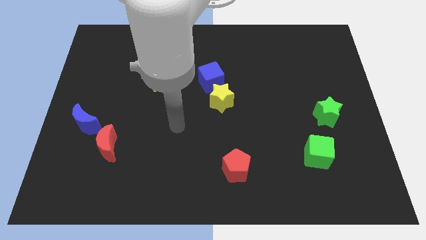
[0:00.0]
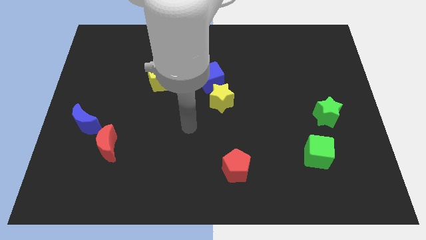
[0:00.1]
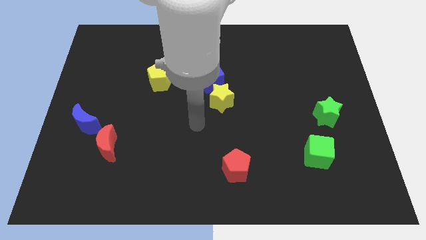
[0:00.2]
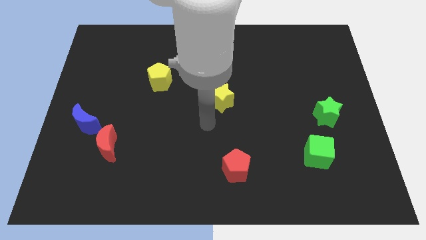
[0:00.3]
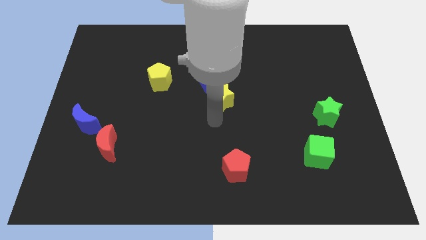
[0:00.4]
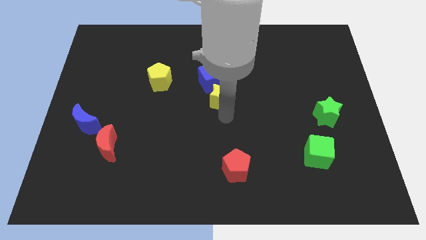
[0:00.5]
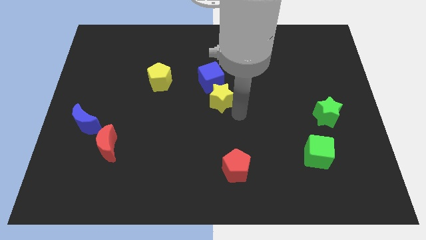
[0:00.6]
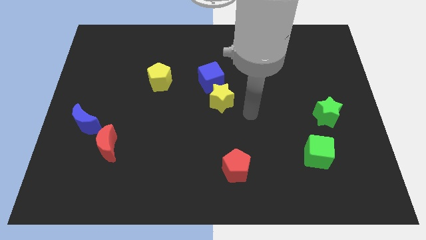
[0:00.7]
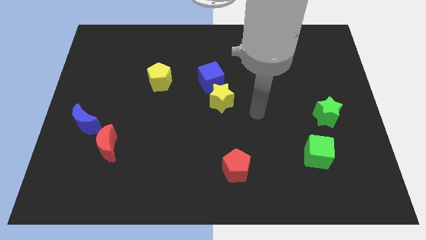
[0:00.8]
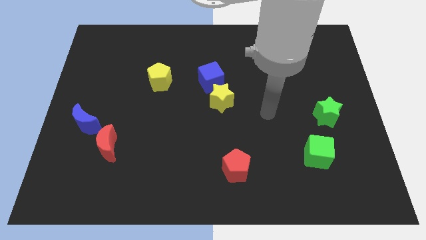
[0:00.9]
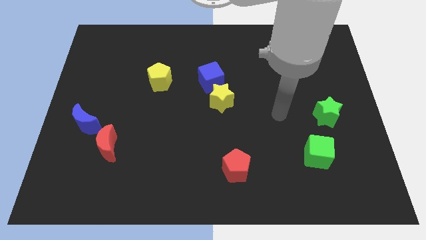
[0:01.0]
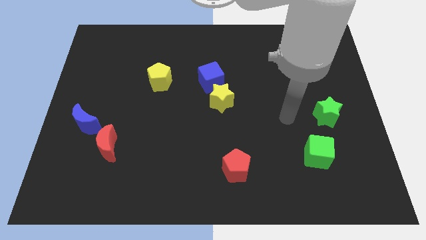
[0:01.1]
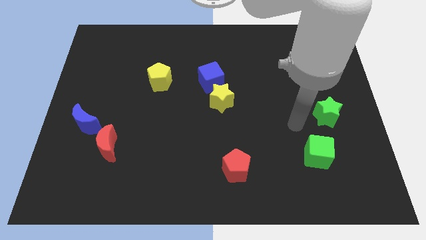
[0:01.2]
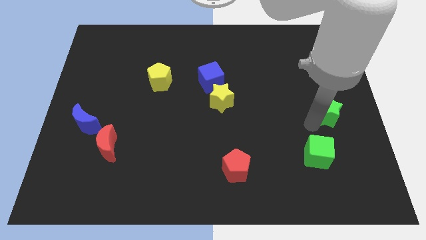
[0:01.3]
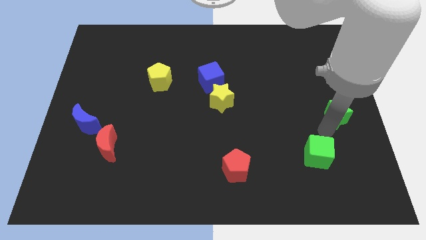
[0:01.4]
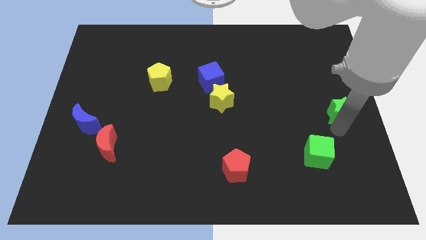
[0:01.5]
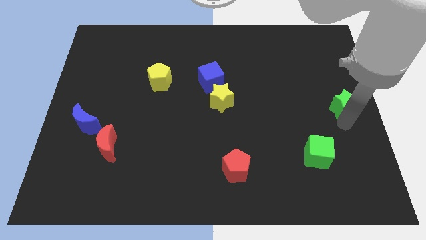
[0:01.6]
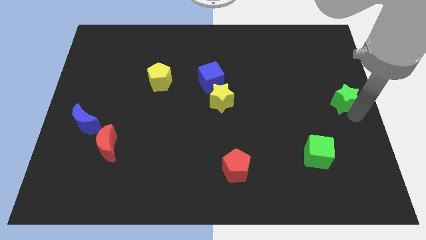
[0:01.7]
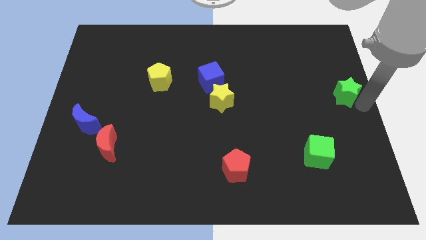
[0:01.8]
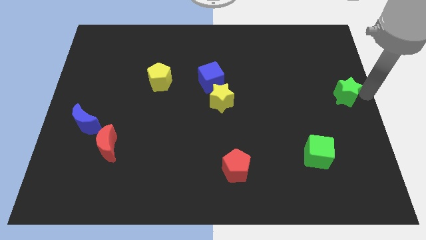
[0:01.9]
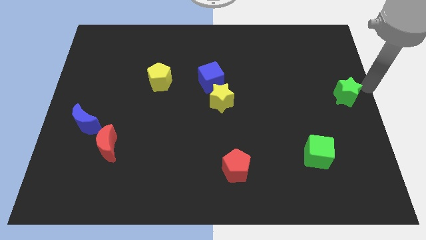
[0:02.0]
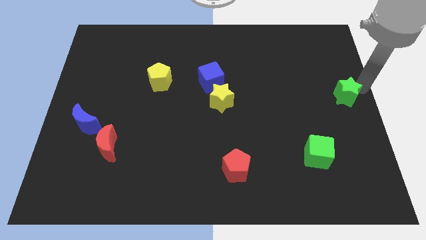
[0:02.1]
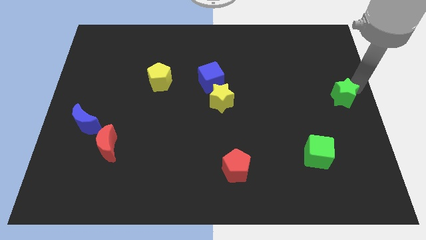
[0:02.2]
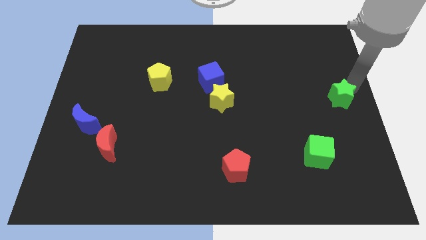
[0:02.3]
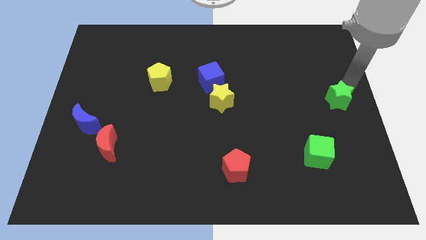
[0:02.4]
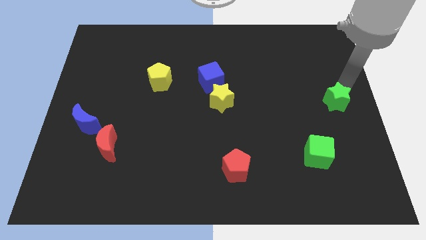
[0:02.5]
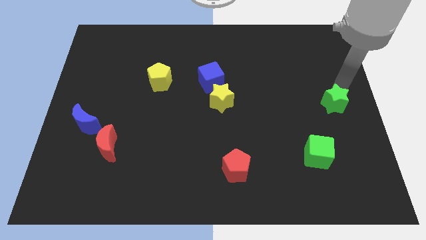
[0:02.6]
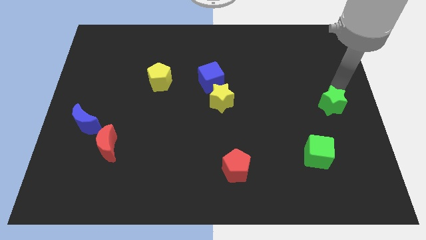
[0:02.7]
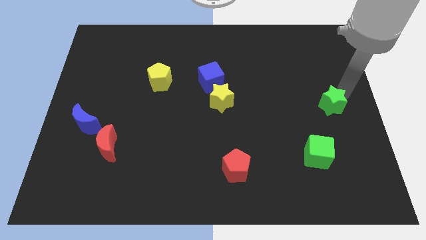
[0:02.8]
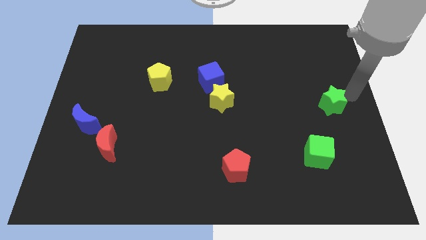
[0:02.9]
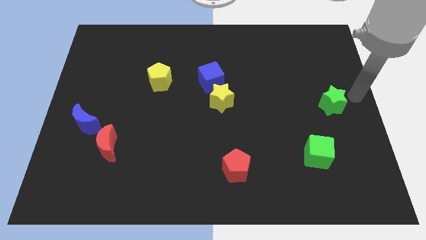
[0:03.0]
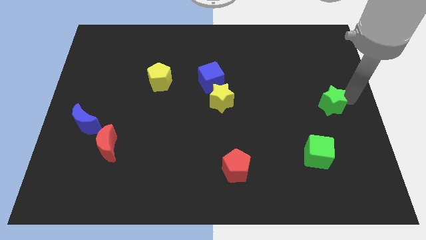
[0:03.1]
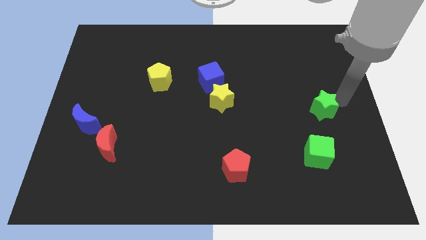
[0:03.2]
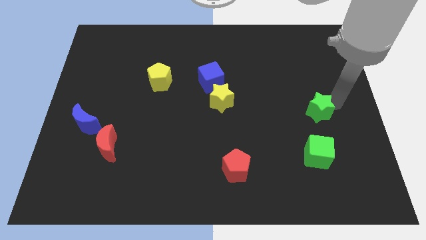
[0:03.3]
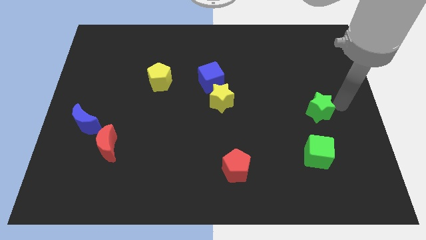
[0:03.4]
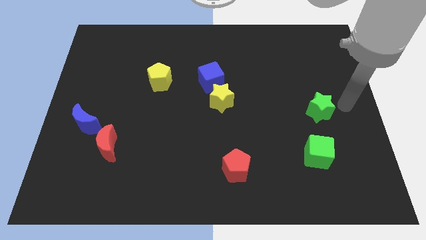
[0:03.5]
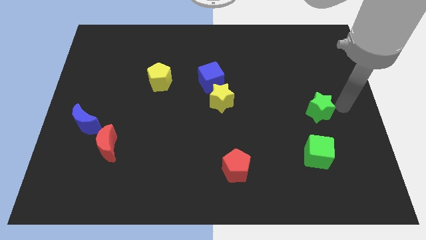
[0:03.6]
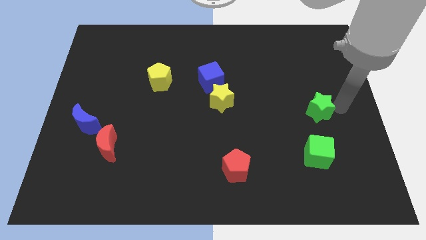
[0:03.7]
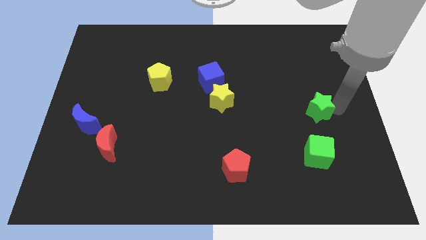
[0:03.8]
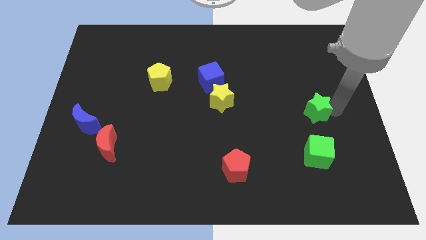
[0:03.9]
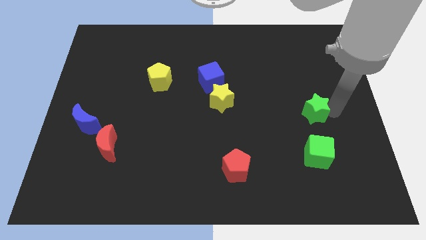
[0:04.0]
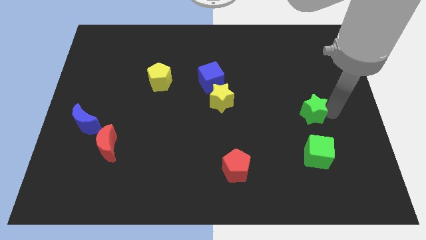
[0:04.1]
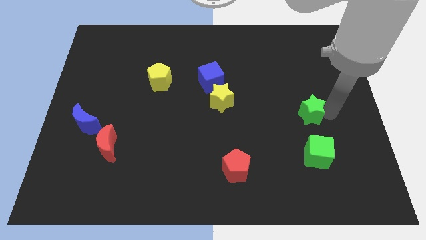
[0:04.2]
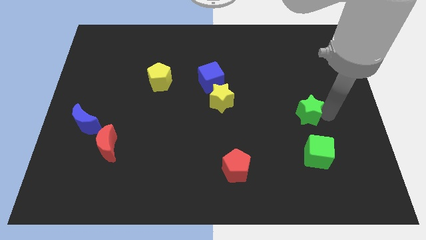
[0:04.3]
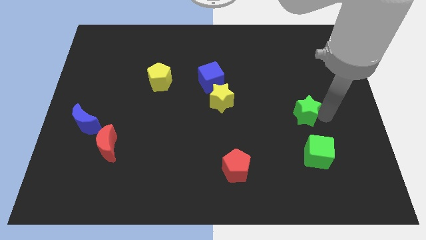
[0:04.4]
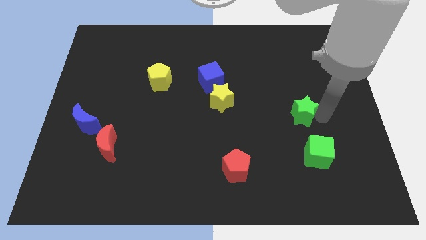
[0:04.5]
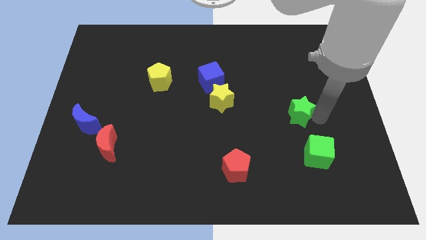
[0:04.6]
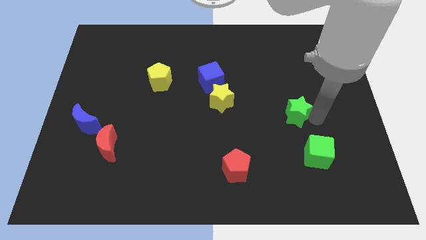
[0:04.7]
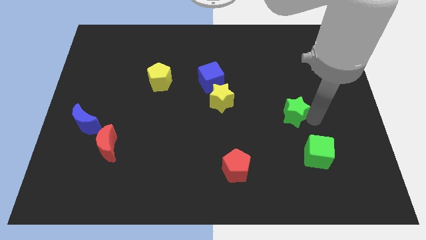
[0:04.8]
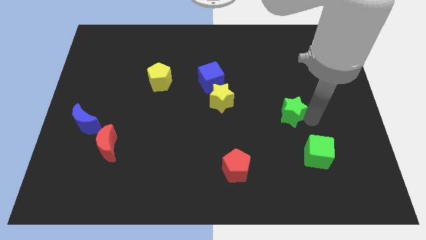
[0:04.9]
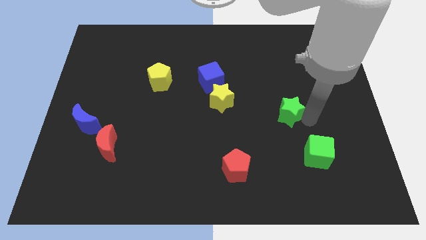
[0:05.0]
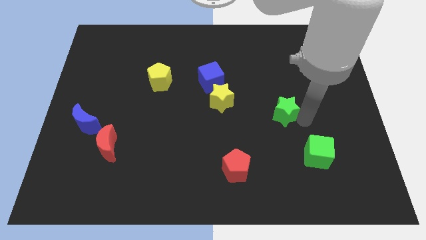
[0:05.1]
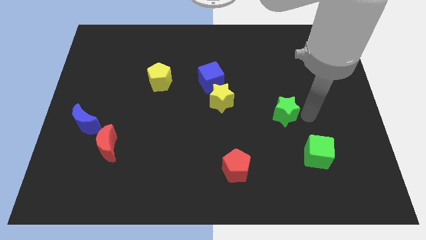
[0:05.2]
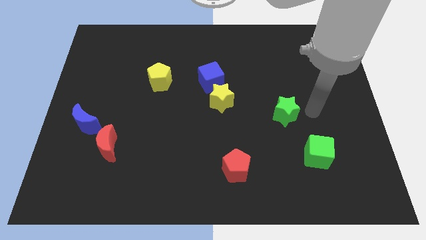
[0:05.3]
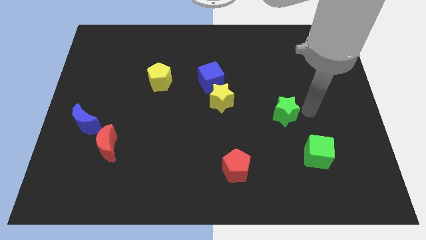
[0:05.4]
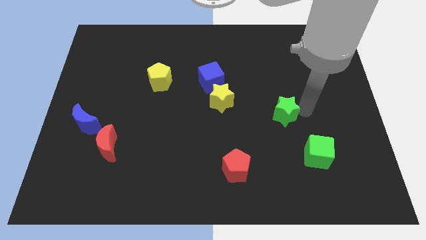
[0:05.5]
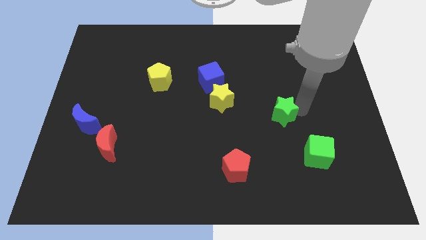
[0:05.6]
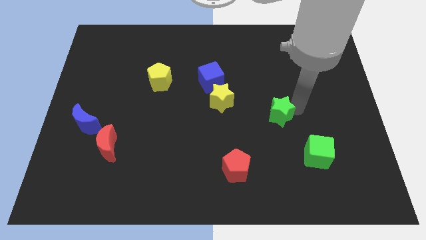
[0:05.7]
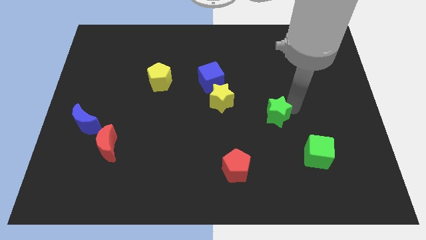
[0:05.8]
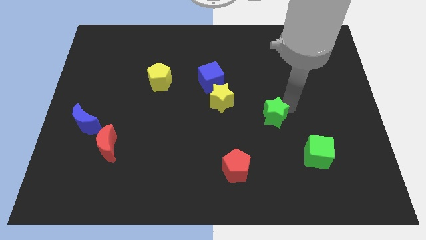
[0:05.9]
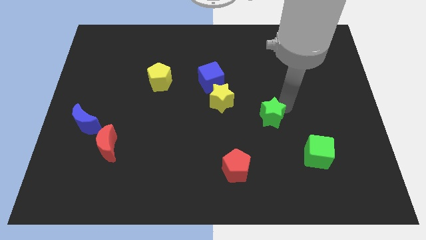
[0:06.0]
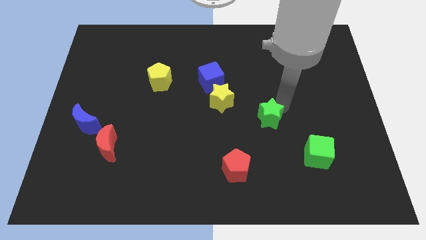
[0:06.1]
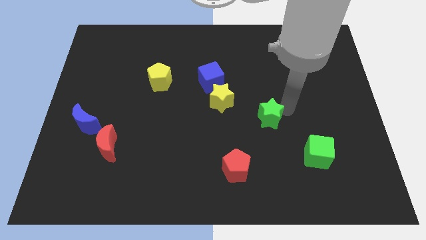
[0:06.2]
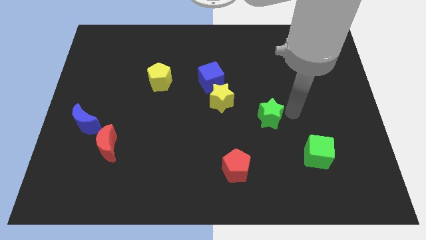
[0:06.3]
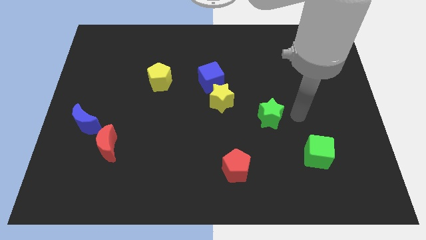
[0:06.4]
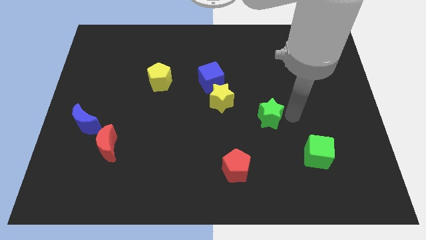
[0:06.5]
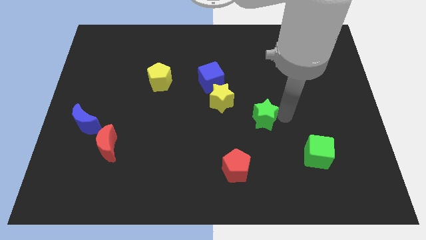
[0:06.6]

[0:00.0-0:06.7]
move the green star diagonally down and to the right of the yellow star

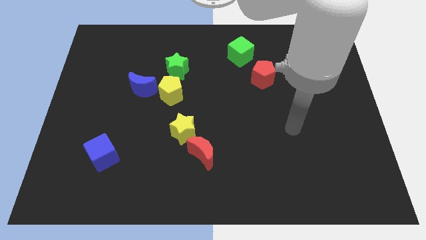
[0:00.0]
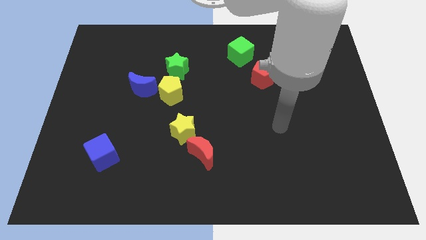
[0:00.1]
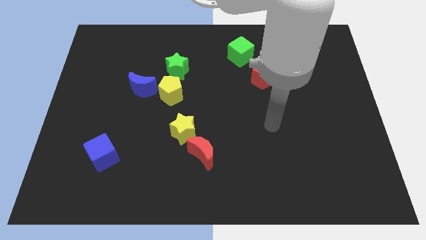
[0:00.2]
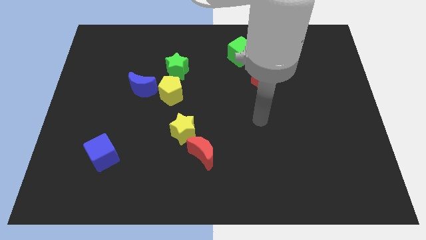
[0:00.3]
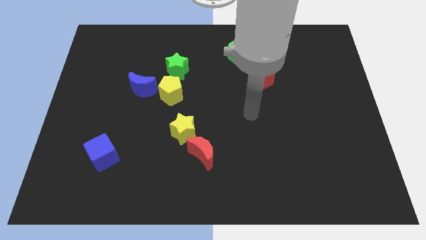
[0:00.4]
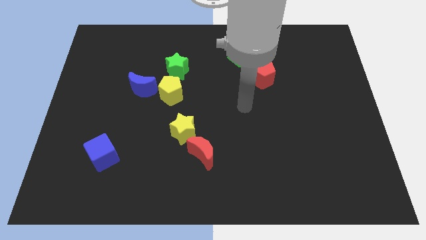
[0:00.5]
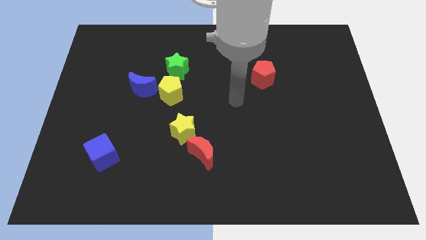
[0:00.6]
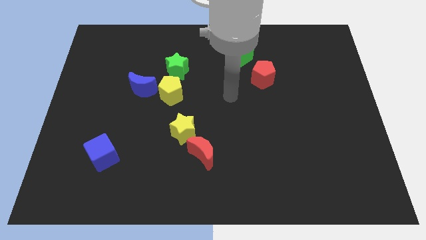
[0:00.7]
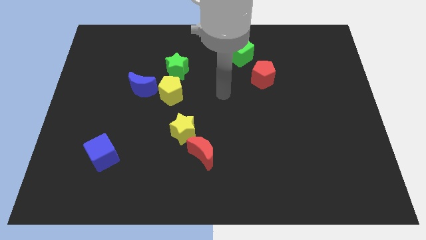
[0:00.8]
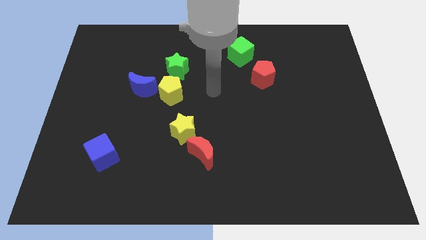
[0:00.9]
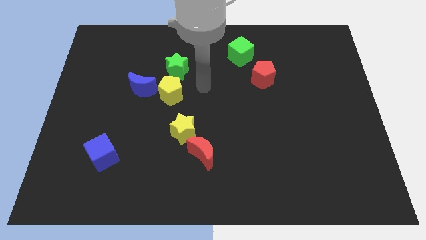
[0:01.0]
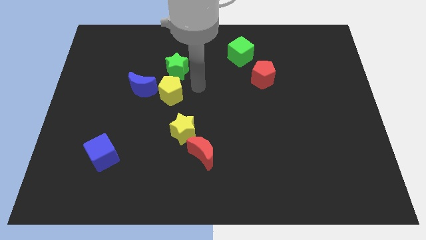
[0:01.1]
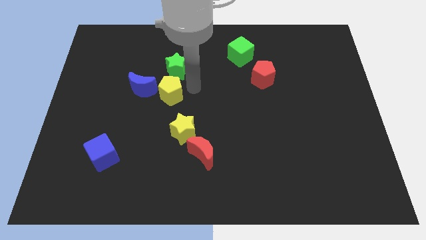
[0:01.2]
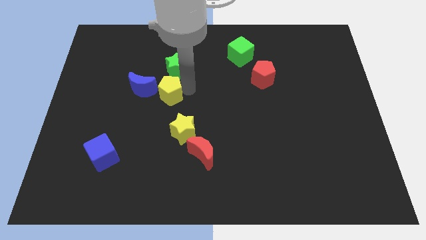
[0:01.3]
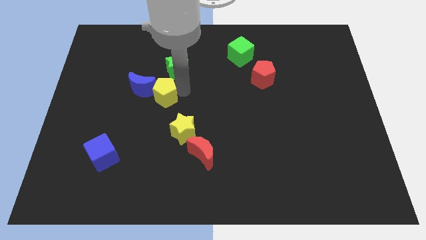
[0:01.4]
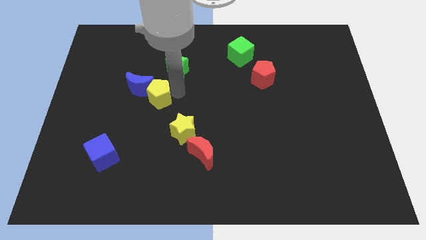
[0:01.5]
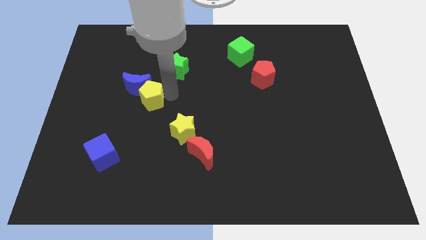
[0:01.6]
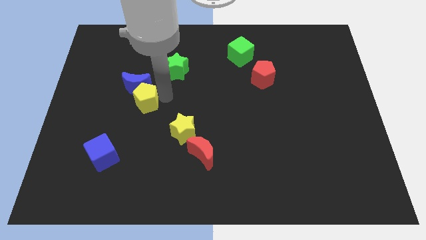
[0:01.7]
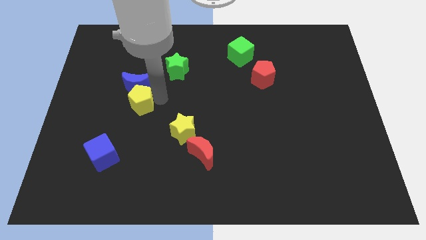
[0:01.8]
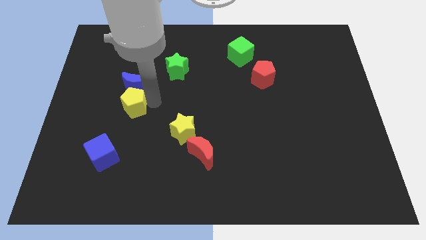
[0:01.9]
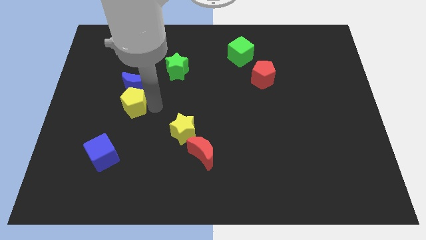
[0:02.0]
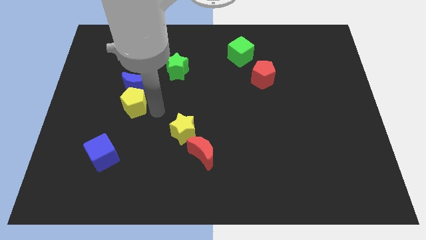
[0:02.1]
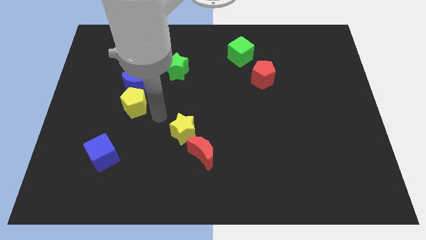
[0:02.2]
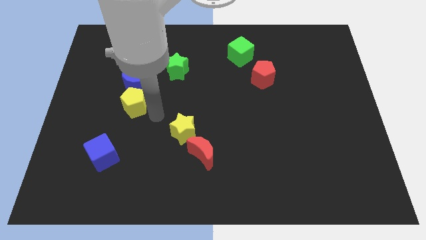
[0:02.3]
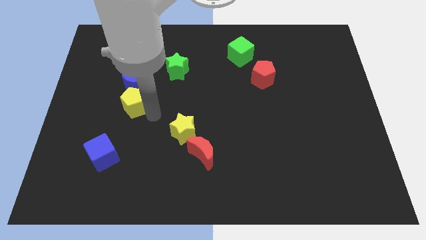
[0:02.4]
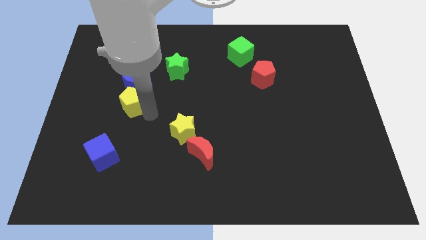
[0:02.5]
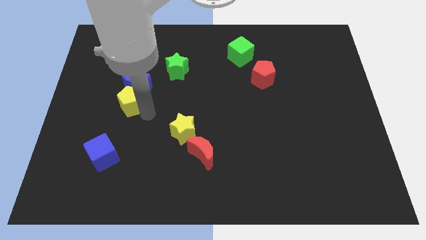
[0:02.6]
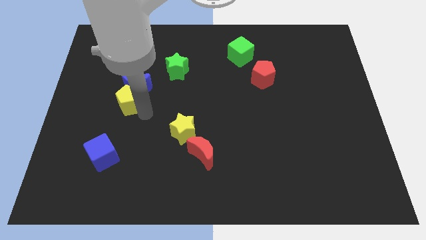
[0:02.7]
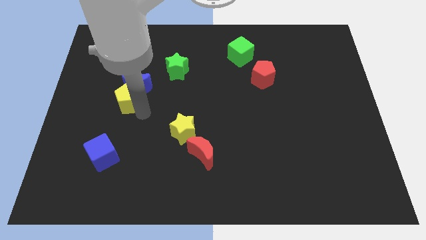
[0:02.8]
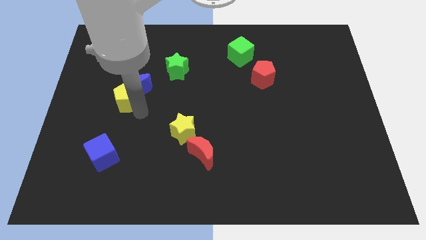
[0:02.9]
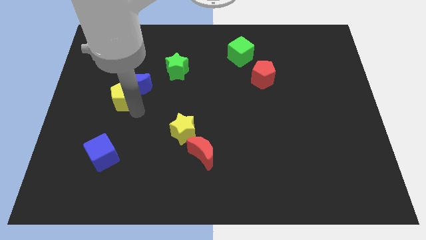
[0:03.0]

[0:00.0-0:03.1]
slide the yellow pentagon to the left of the blue moon
